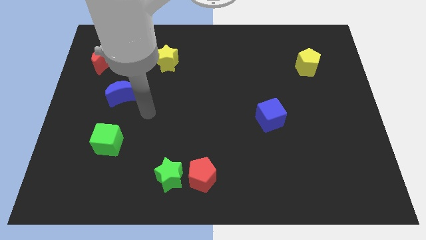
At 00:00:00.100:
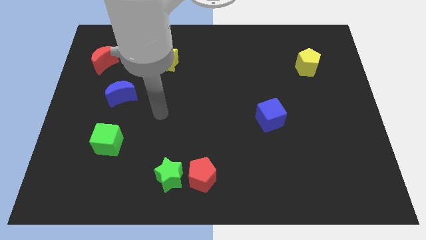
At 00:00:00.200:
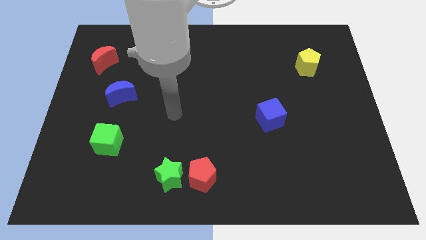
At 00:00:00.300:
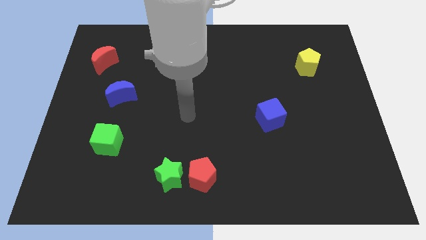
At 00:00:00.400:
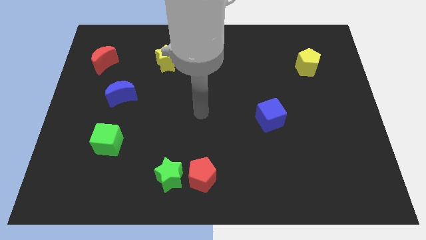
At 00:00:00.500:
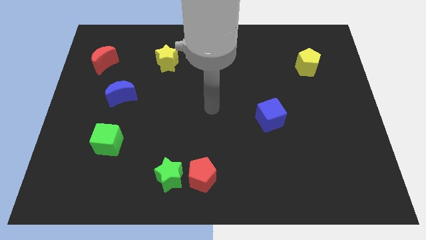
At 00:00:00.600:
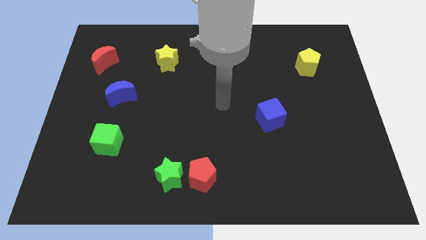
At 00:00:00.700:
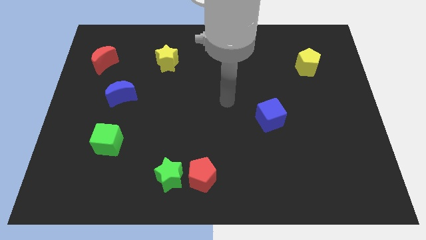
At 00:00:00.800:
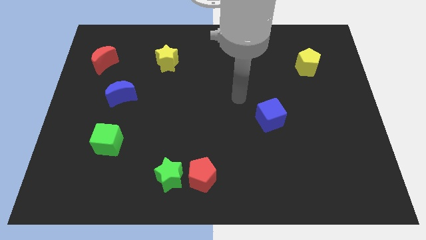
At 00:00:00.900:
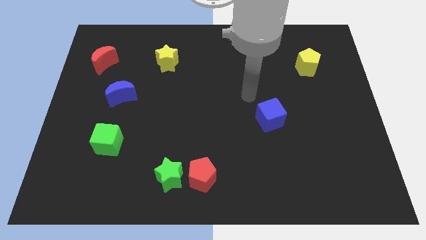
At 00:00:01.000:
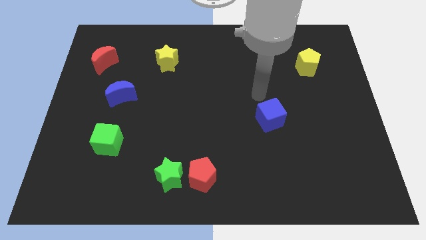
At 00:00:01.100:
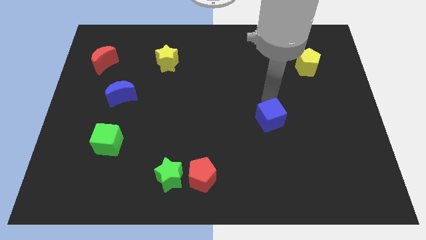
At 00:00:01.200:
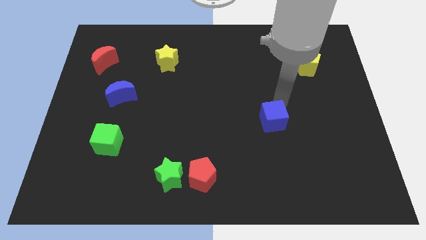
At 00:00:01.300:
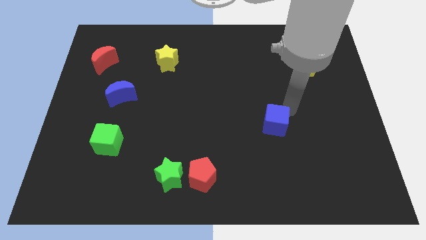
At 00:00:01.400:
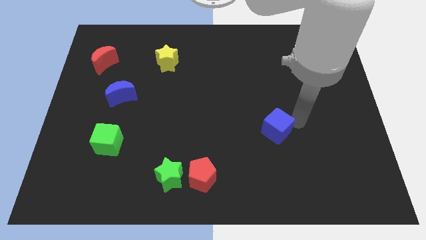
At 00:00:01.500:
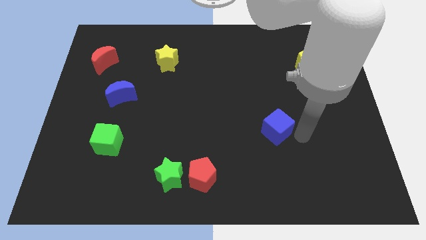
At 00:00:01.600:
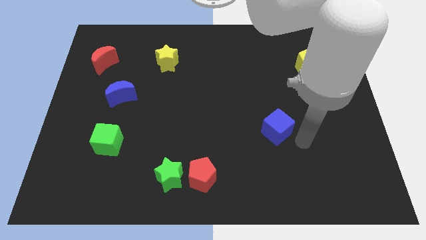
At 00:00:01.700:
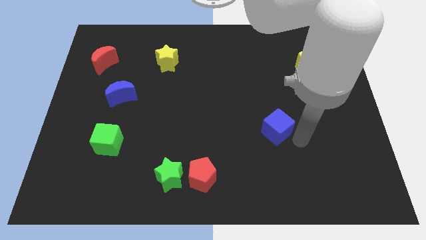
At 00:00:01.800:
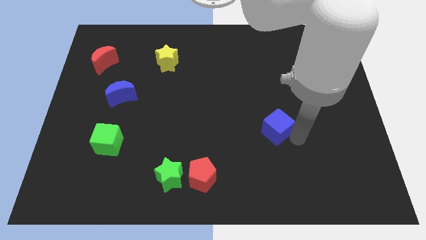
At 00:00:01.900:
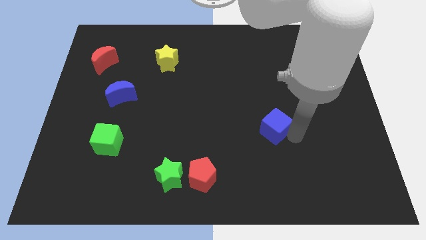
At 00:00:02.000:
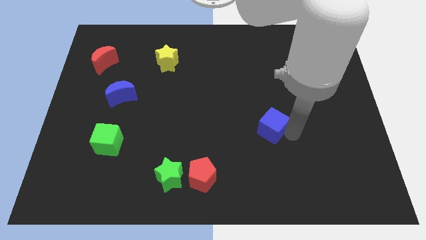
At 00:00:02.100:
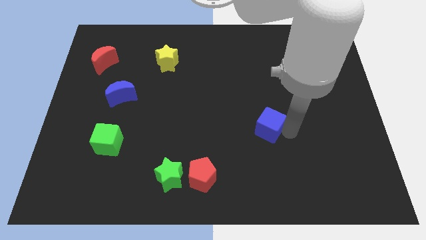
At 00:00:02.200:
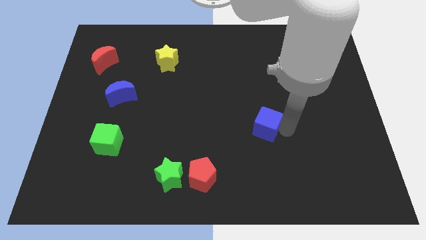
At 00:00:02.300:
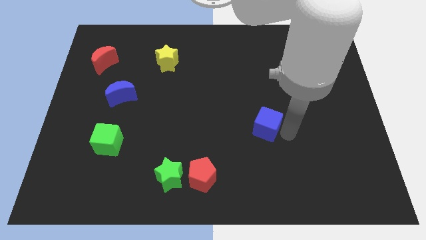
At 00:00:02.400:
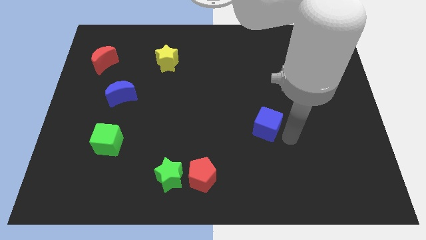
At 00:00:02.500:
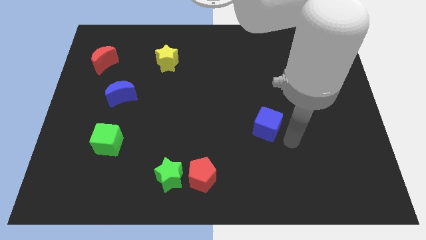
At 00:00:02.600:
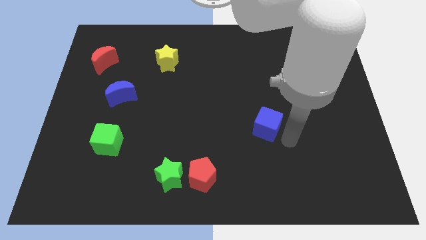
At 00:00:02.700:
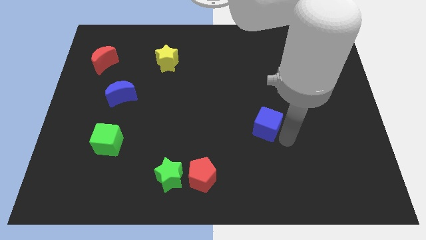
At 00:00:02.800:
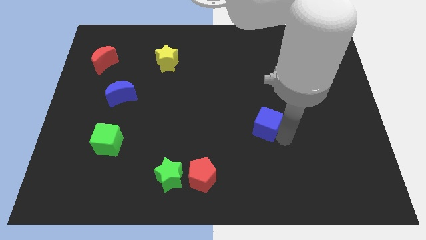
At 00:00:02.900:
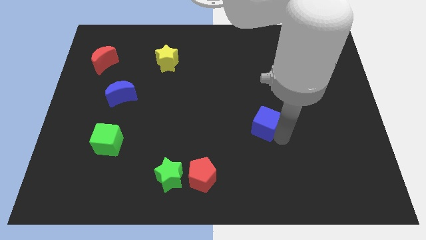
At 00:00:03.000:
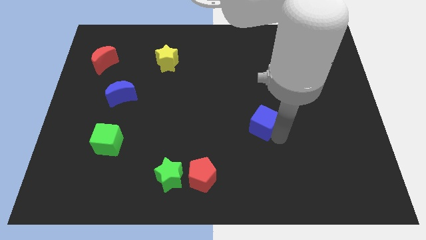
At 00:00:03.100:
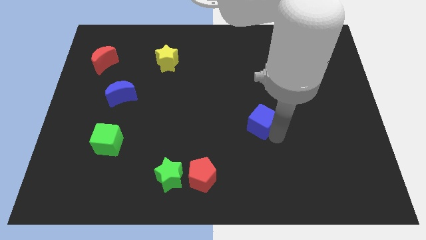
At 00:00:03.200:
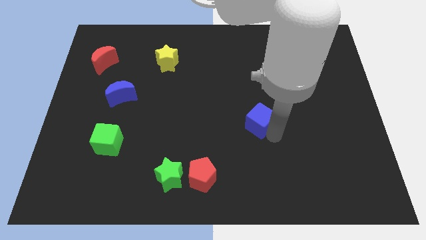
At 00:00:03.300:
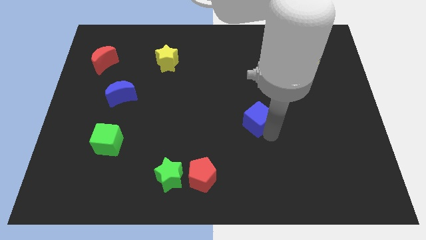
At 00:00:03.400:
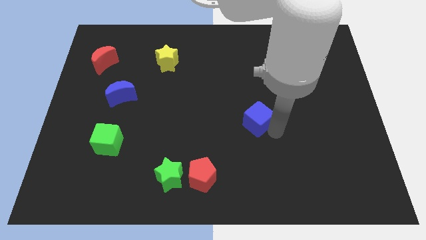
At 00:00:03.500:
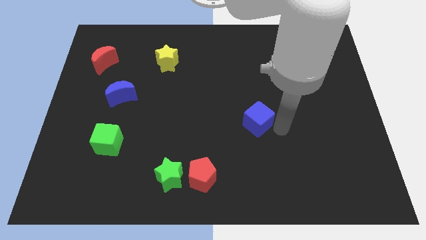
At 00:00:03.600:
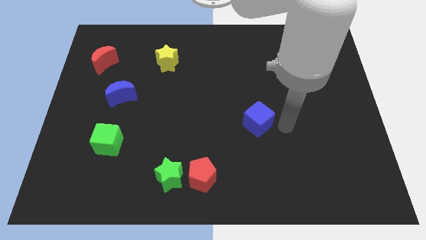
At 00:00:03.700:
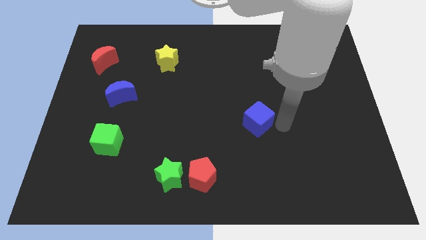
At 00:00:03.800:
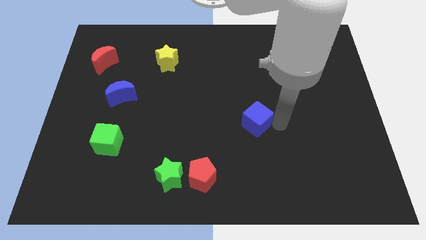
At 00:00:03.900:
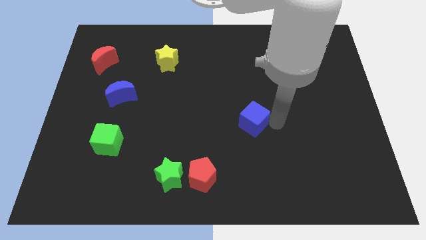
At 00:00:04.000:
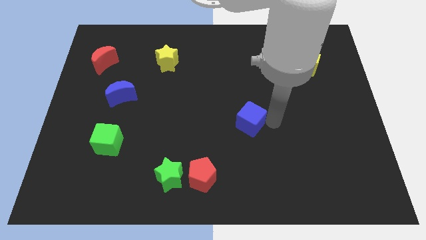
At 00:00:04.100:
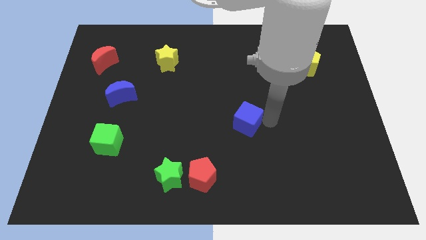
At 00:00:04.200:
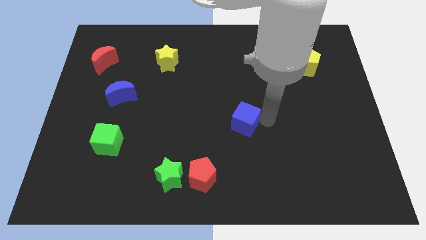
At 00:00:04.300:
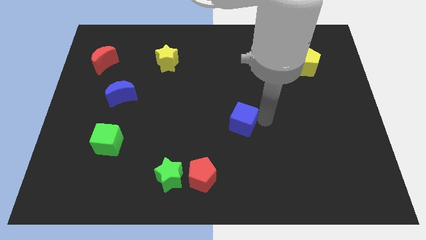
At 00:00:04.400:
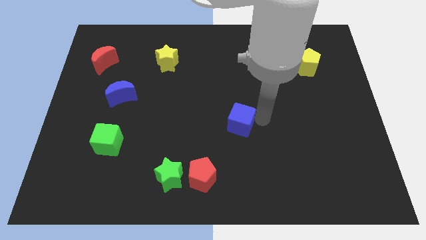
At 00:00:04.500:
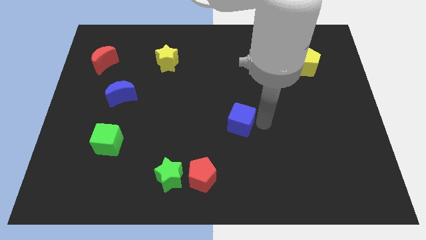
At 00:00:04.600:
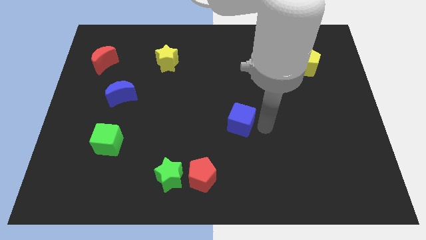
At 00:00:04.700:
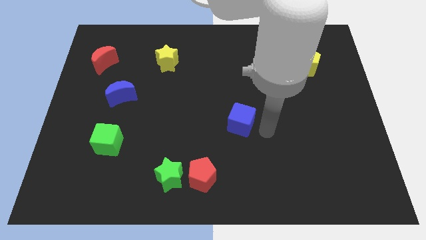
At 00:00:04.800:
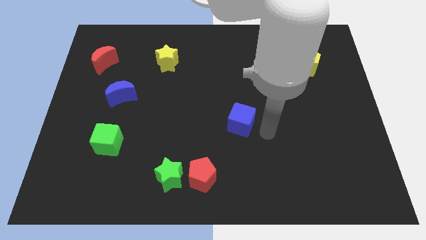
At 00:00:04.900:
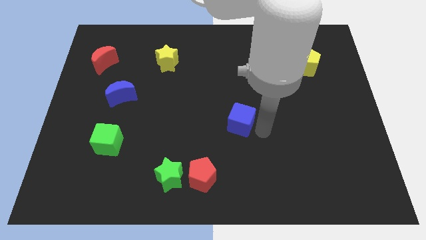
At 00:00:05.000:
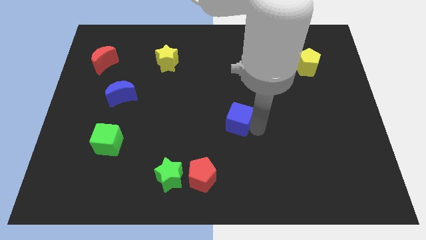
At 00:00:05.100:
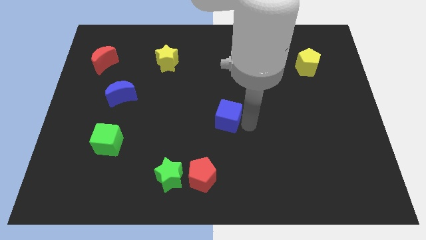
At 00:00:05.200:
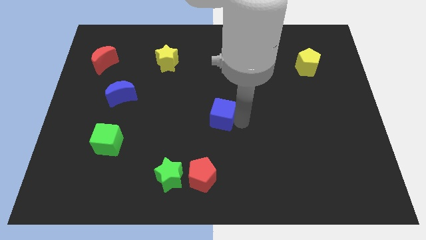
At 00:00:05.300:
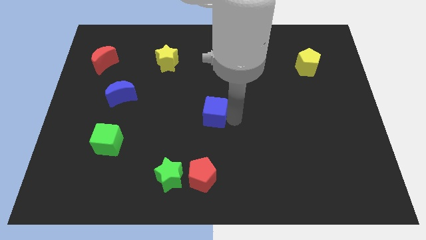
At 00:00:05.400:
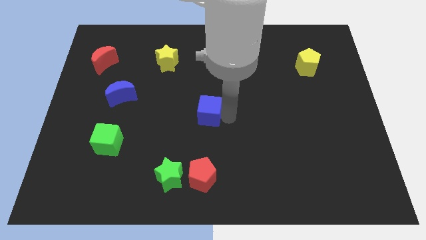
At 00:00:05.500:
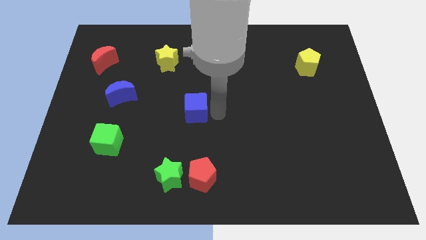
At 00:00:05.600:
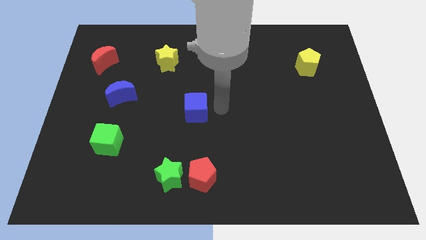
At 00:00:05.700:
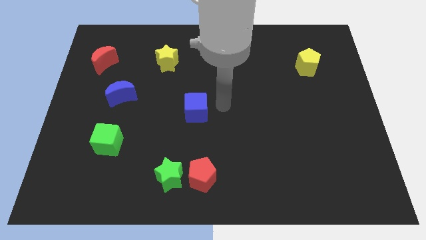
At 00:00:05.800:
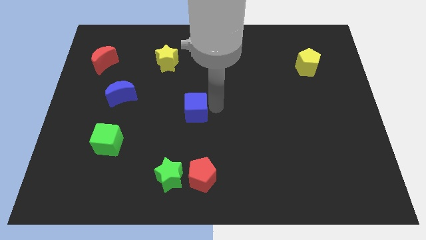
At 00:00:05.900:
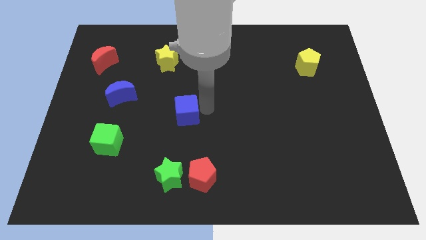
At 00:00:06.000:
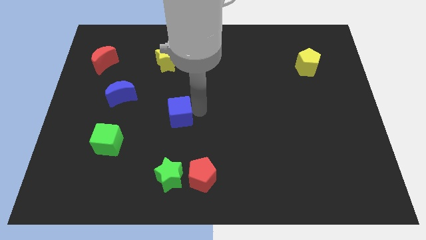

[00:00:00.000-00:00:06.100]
slide the blue cube to the left

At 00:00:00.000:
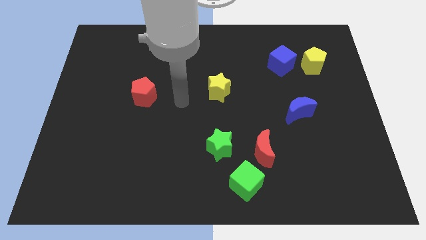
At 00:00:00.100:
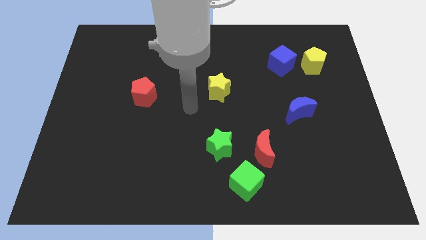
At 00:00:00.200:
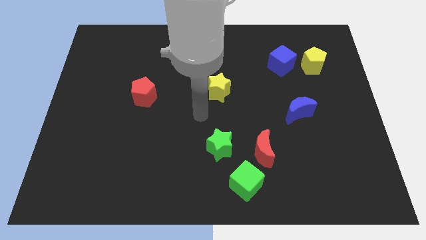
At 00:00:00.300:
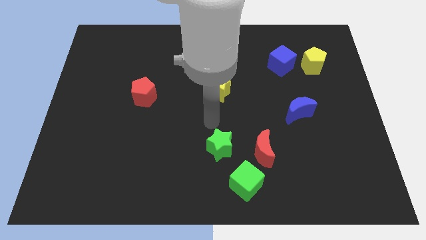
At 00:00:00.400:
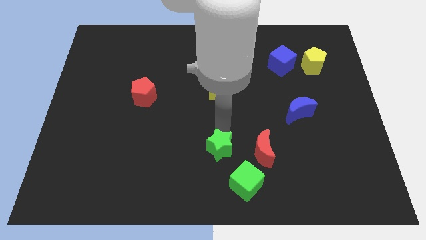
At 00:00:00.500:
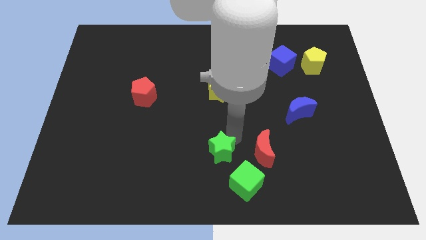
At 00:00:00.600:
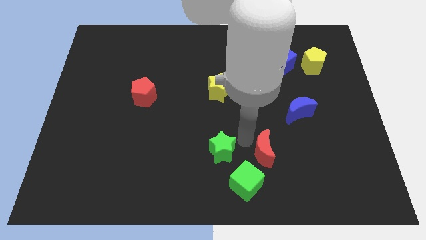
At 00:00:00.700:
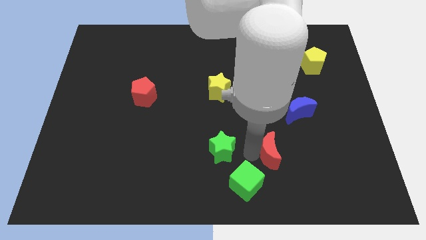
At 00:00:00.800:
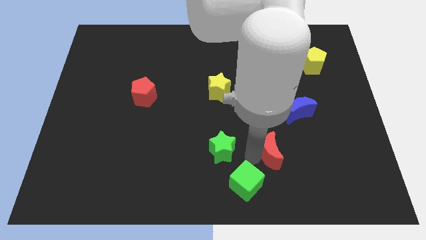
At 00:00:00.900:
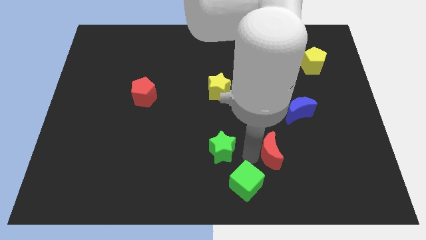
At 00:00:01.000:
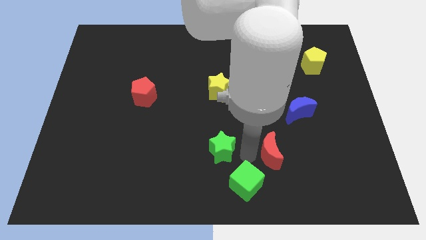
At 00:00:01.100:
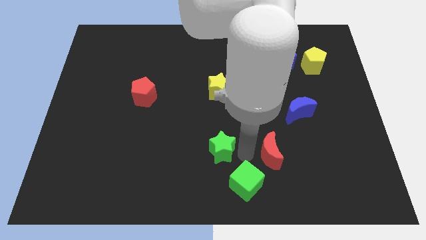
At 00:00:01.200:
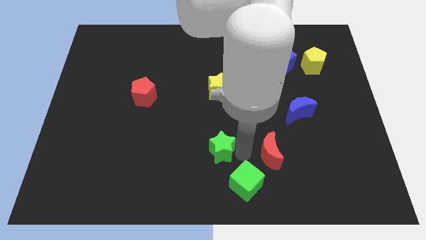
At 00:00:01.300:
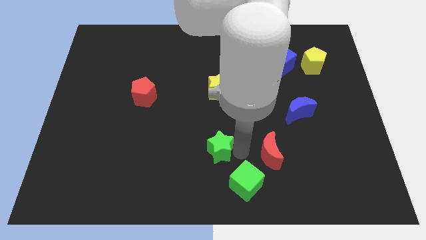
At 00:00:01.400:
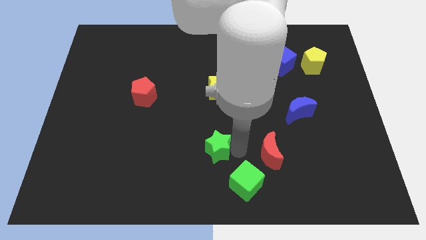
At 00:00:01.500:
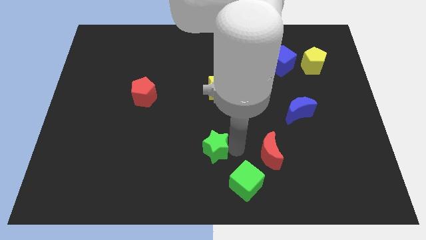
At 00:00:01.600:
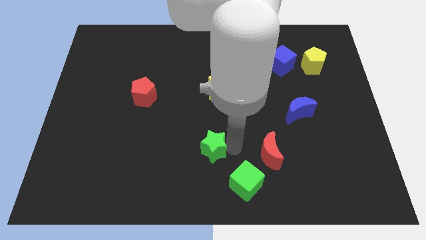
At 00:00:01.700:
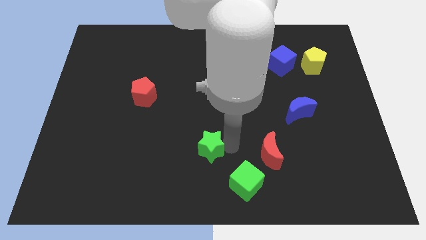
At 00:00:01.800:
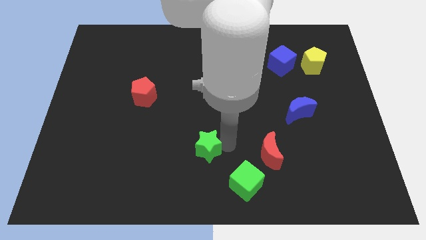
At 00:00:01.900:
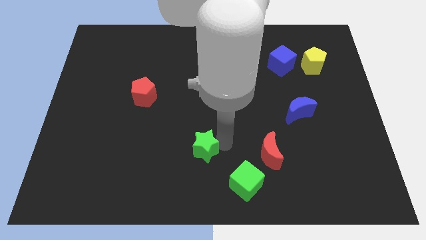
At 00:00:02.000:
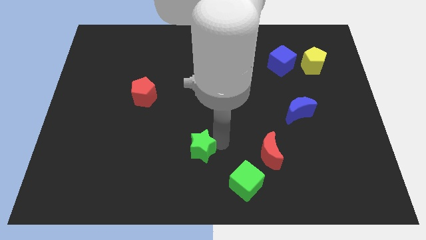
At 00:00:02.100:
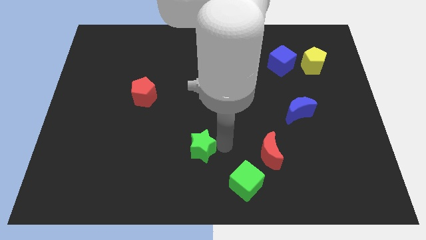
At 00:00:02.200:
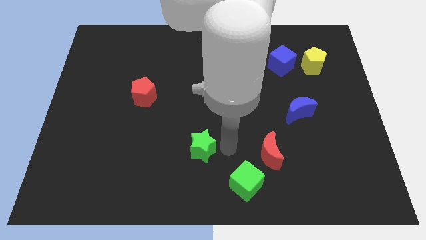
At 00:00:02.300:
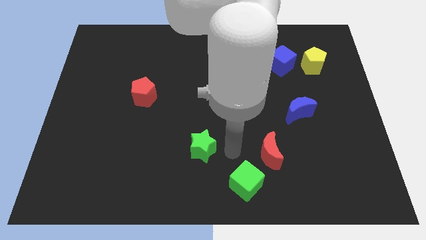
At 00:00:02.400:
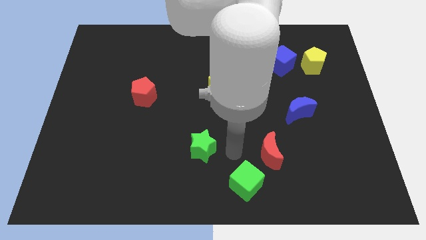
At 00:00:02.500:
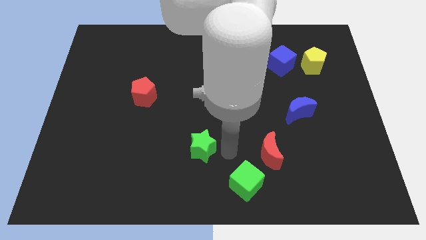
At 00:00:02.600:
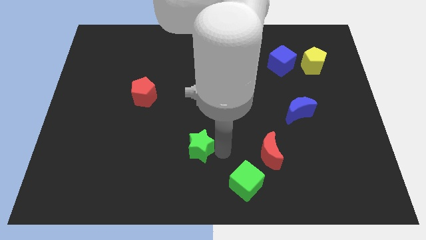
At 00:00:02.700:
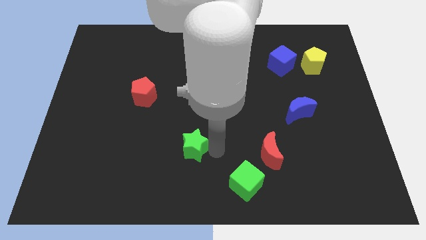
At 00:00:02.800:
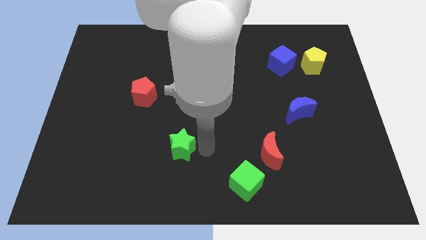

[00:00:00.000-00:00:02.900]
push the green star a bit left
